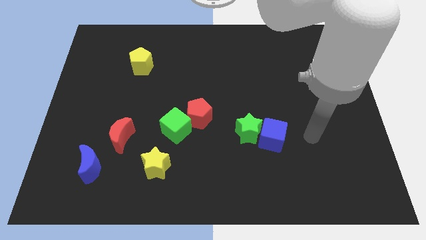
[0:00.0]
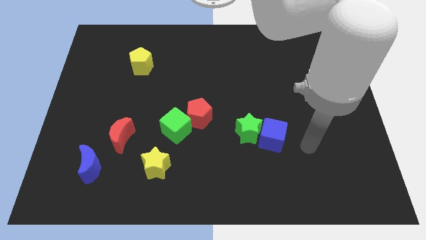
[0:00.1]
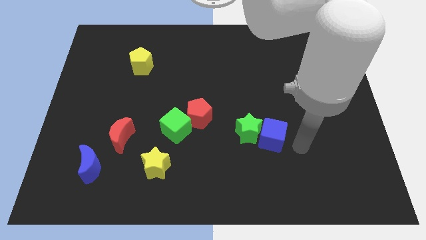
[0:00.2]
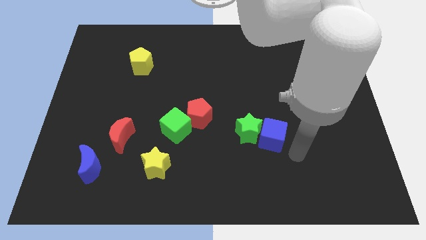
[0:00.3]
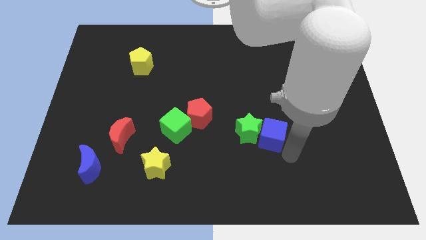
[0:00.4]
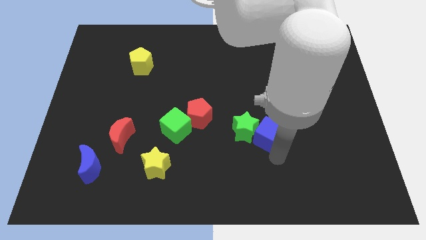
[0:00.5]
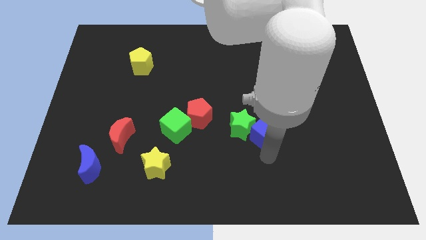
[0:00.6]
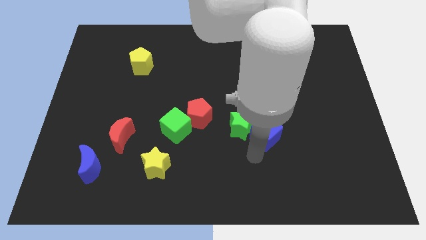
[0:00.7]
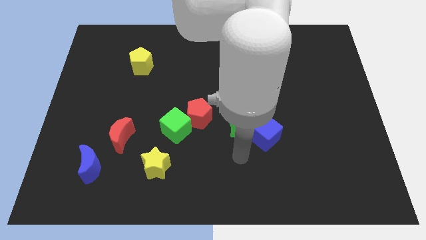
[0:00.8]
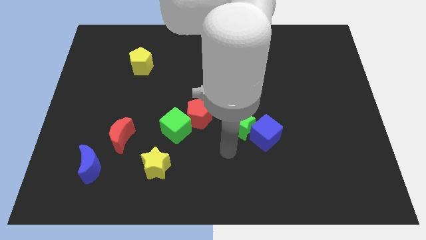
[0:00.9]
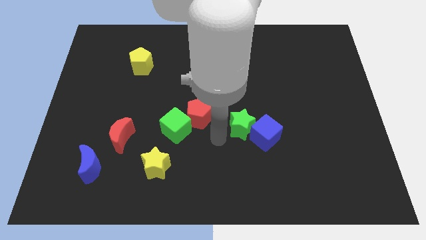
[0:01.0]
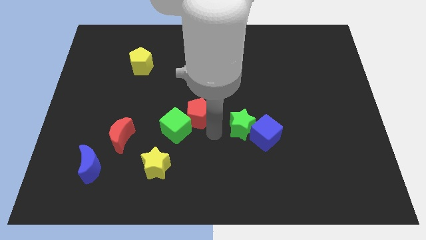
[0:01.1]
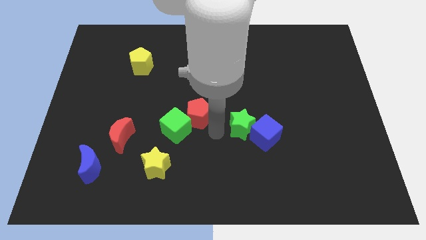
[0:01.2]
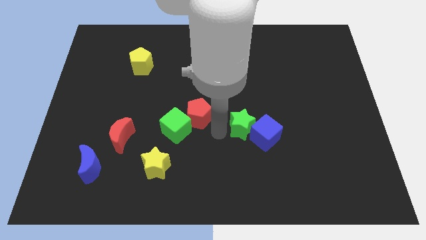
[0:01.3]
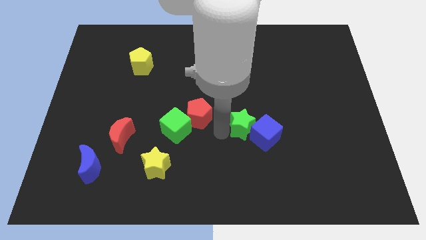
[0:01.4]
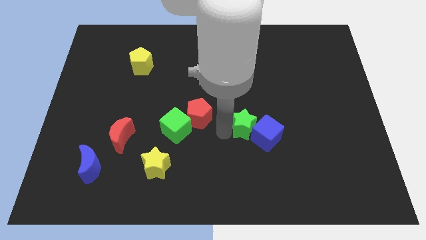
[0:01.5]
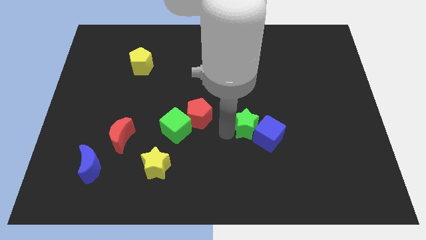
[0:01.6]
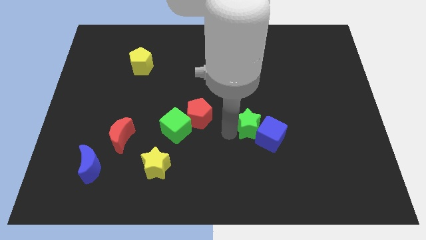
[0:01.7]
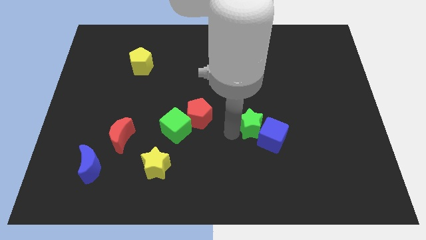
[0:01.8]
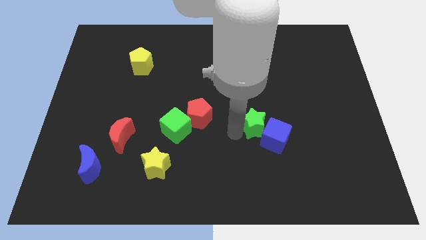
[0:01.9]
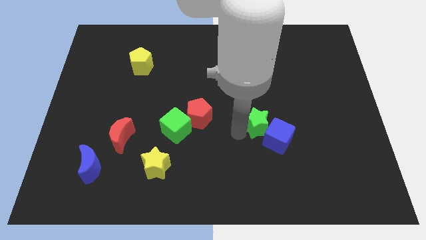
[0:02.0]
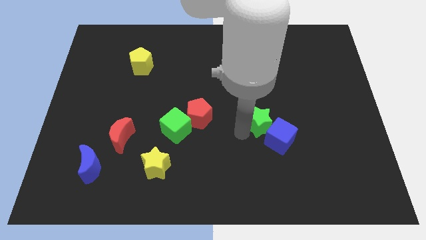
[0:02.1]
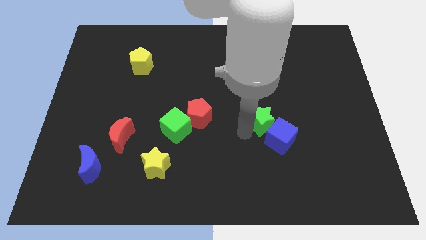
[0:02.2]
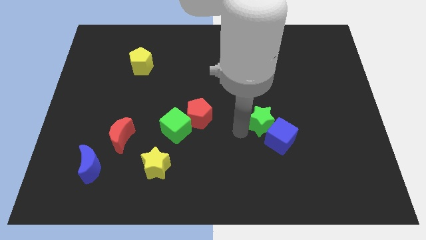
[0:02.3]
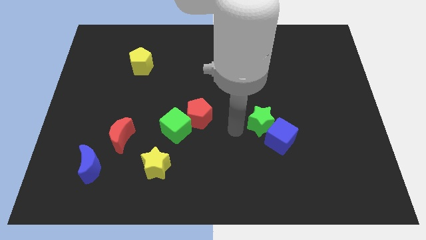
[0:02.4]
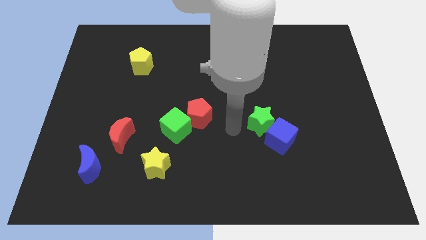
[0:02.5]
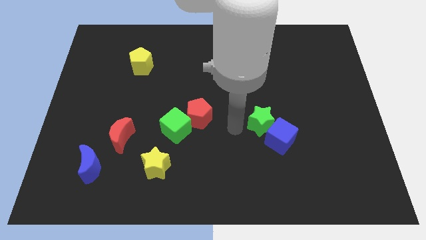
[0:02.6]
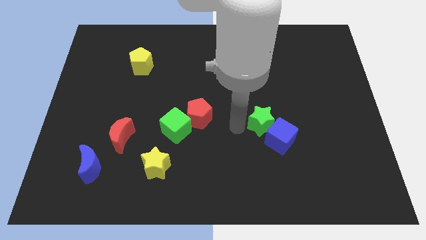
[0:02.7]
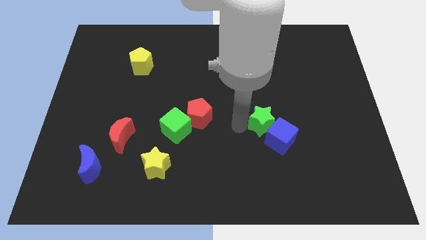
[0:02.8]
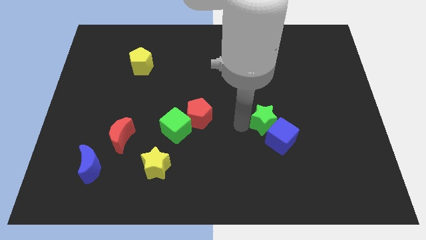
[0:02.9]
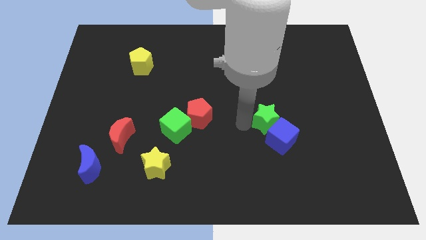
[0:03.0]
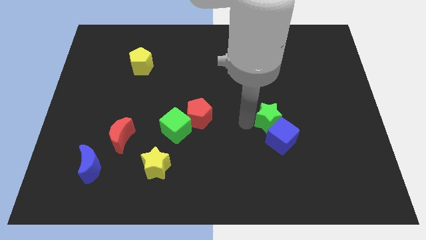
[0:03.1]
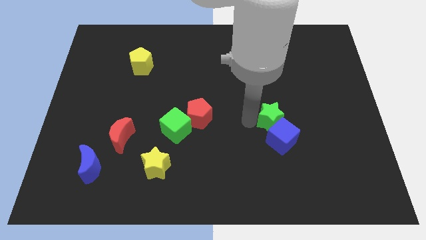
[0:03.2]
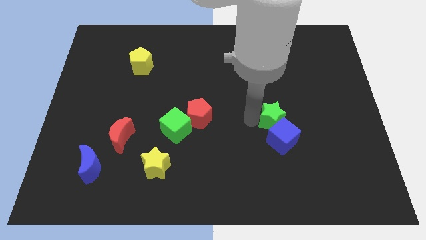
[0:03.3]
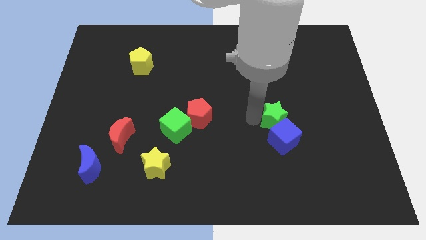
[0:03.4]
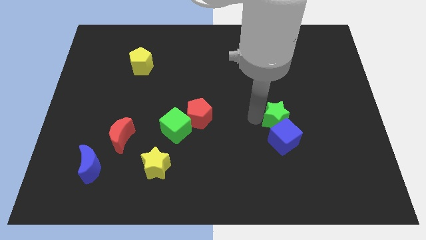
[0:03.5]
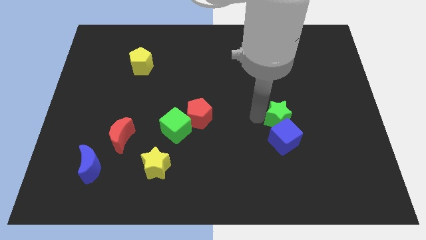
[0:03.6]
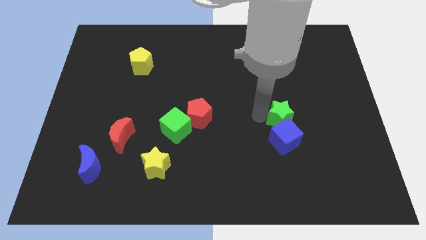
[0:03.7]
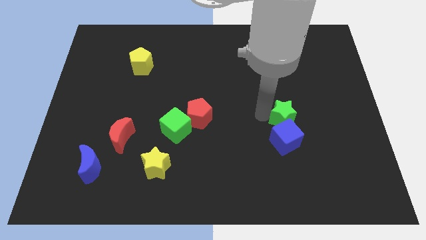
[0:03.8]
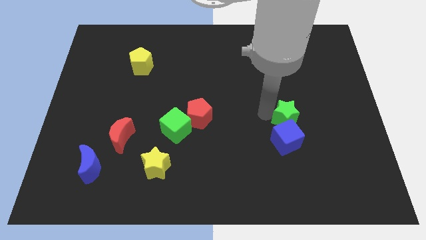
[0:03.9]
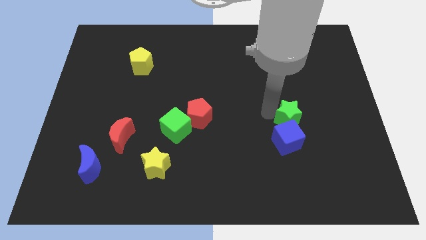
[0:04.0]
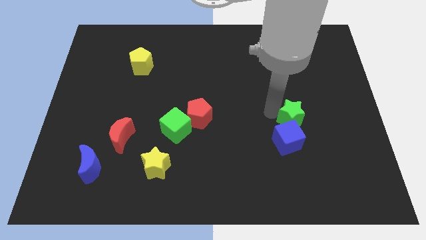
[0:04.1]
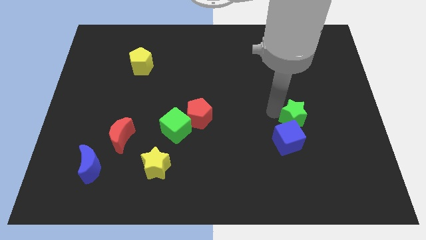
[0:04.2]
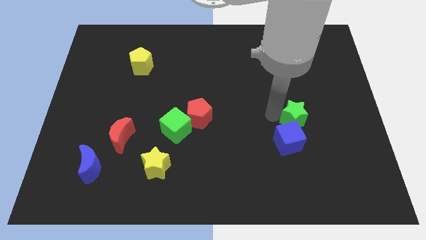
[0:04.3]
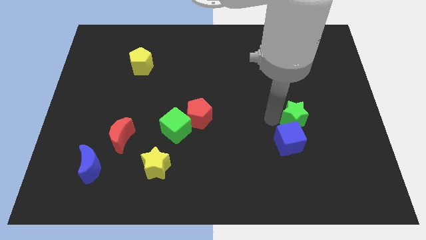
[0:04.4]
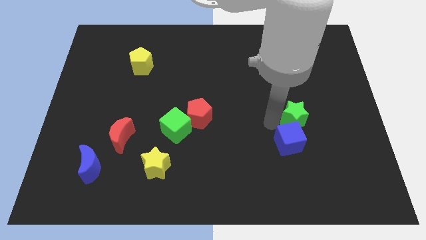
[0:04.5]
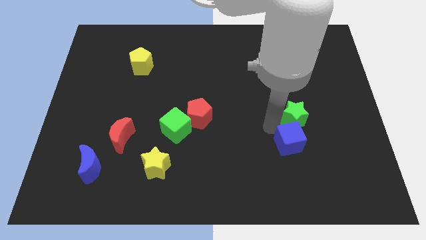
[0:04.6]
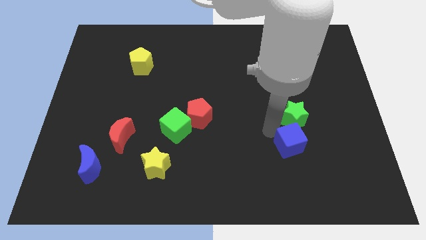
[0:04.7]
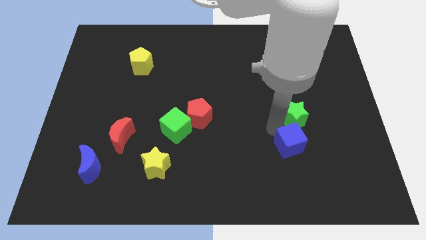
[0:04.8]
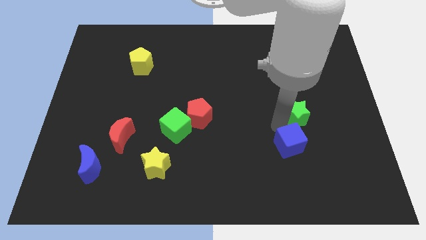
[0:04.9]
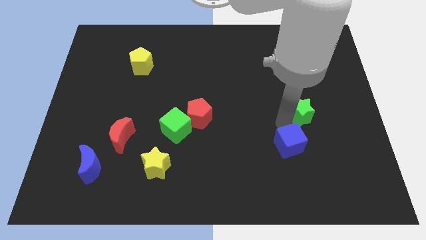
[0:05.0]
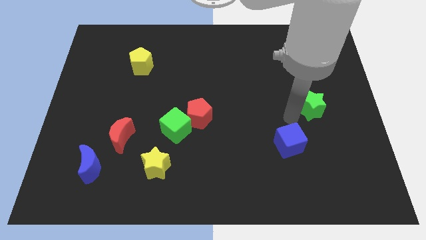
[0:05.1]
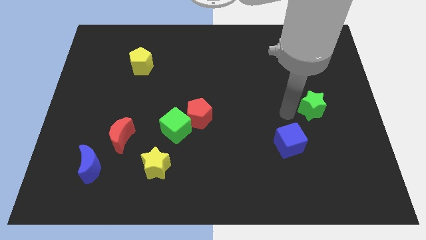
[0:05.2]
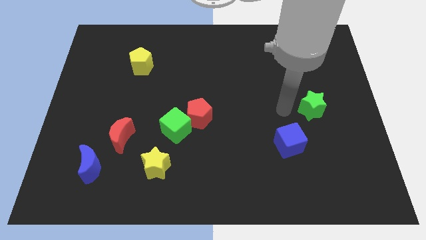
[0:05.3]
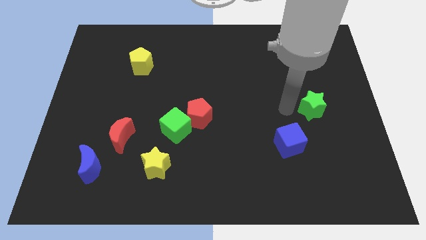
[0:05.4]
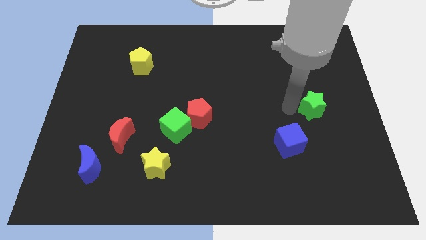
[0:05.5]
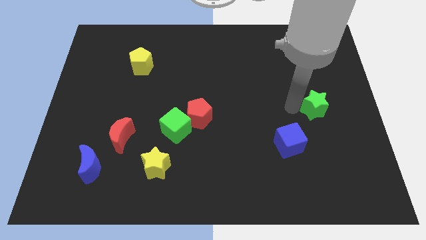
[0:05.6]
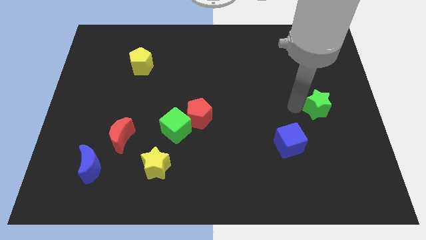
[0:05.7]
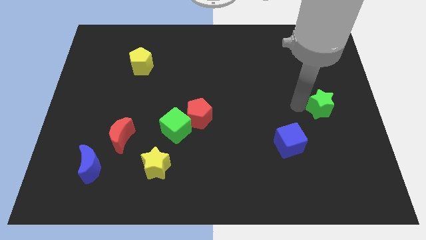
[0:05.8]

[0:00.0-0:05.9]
push the green star to the right side

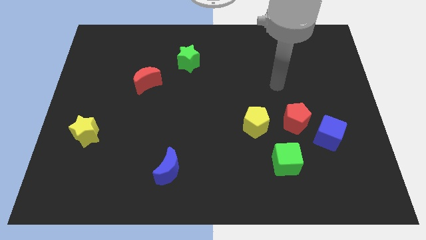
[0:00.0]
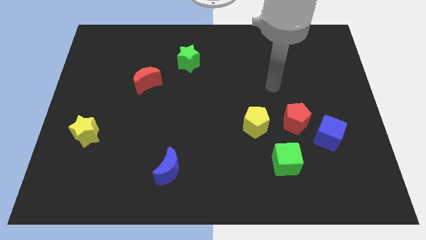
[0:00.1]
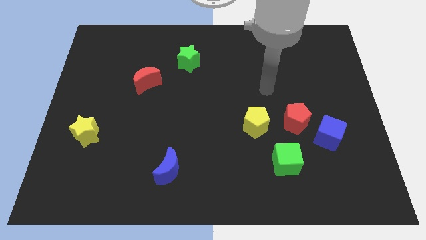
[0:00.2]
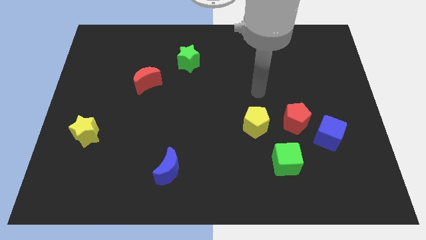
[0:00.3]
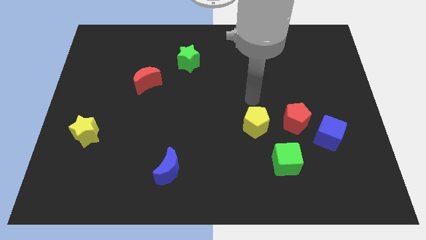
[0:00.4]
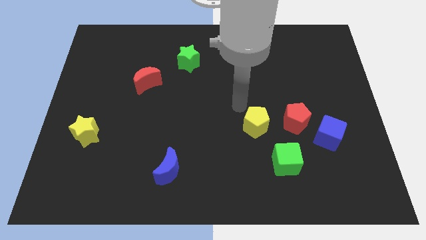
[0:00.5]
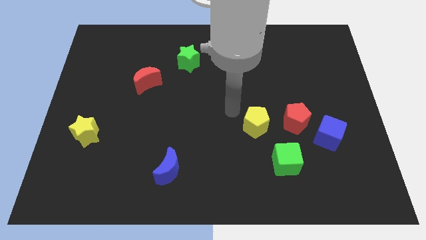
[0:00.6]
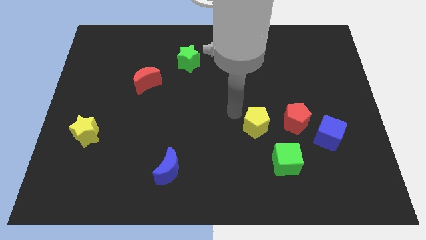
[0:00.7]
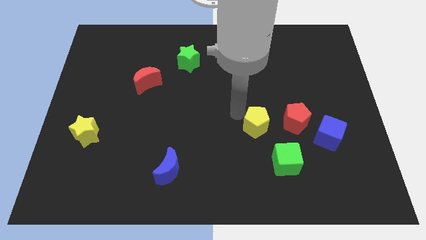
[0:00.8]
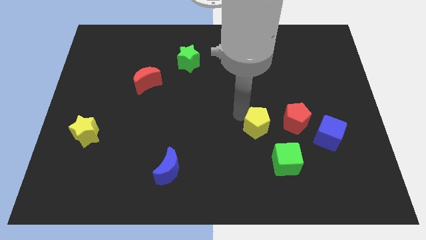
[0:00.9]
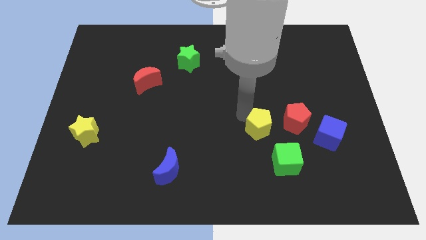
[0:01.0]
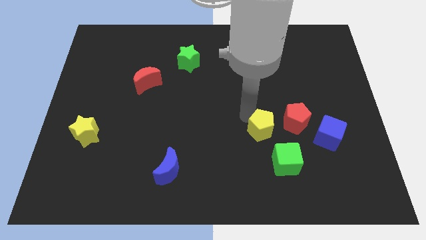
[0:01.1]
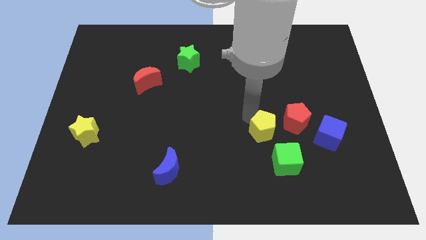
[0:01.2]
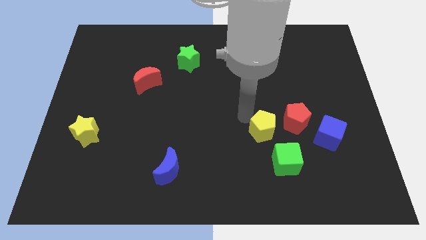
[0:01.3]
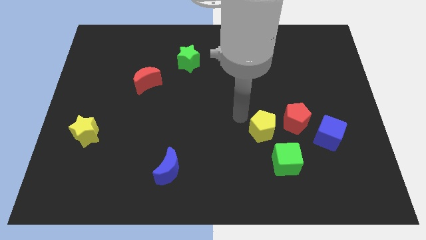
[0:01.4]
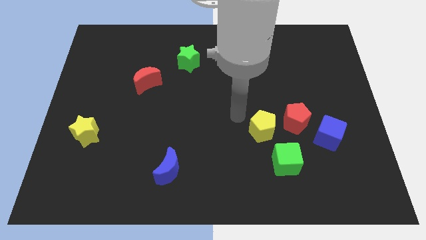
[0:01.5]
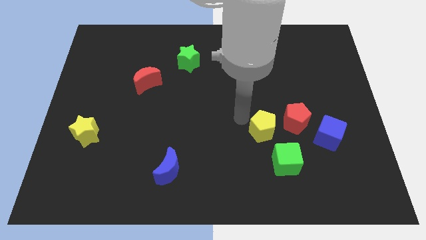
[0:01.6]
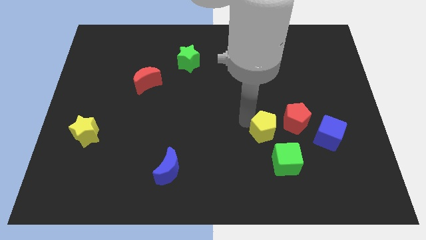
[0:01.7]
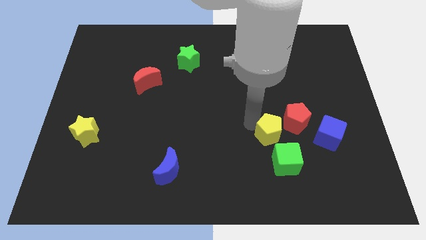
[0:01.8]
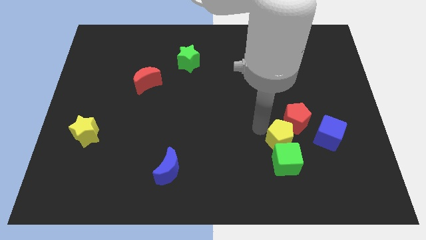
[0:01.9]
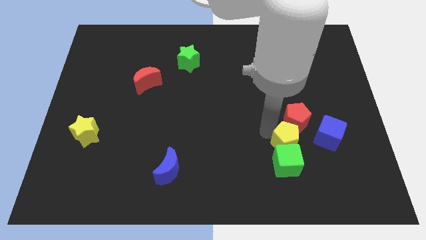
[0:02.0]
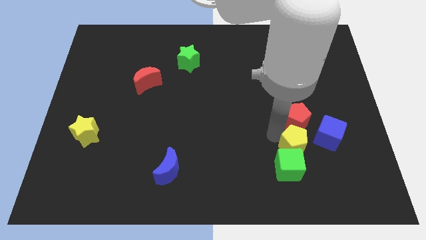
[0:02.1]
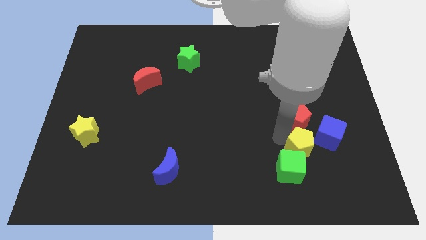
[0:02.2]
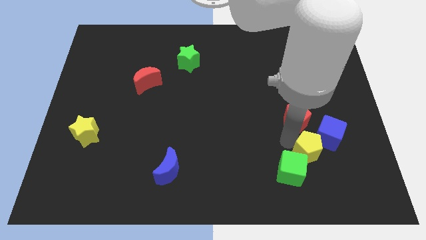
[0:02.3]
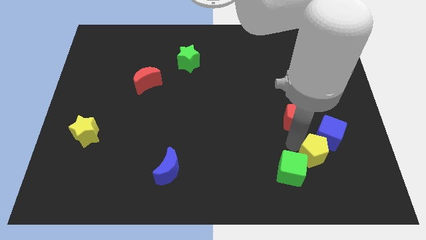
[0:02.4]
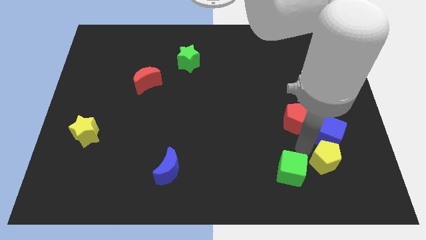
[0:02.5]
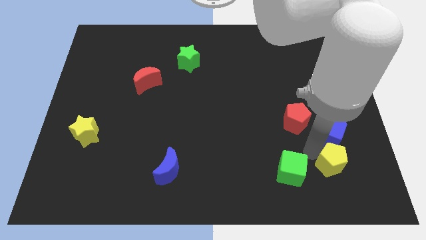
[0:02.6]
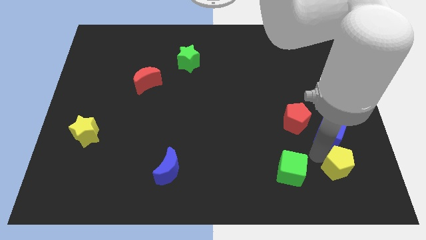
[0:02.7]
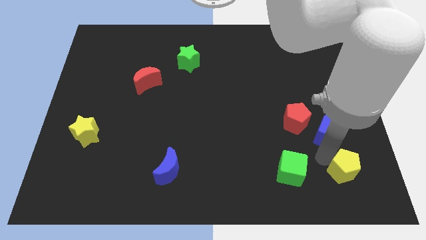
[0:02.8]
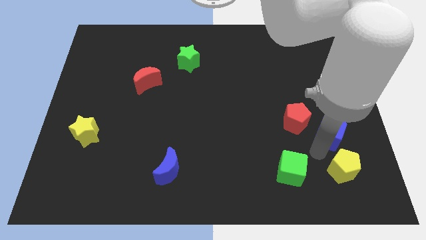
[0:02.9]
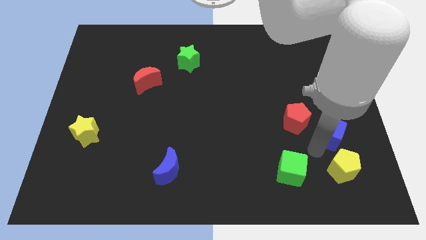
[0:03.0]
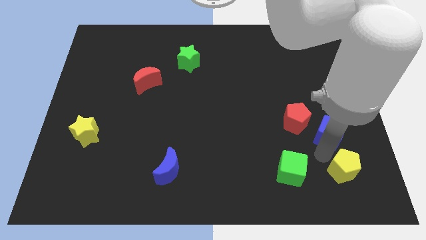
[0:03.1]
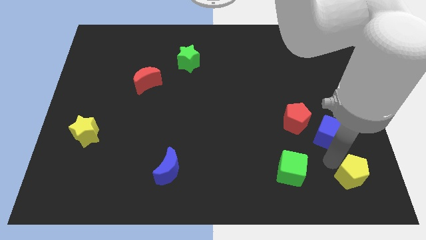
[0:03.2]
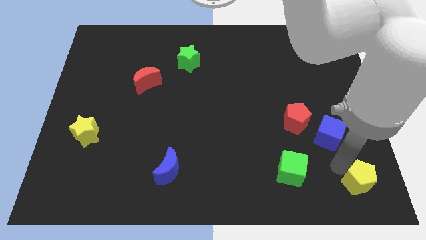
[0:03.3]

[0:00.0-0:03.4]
move the yellow pentagon to the bottom right
